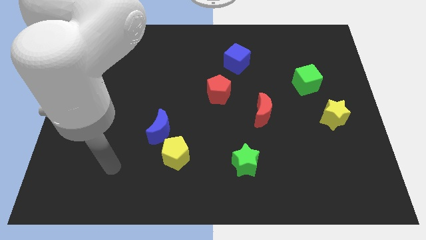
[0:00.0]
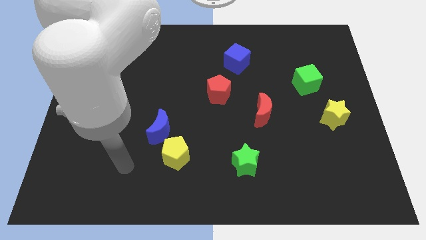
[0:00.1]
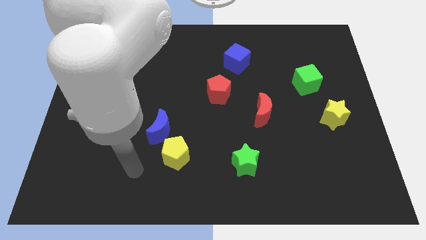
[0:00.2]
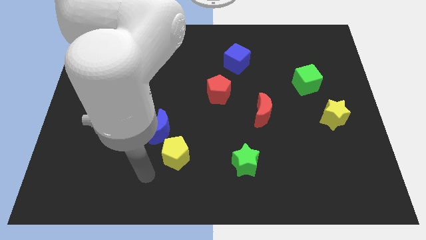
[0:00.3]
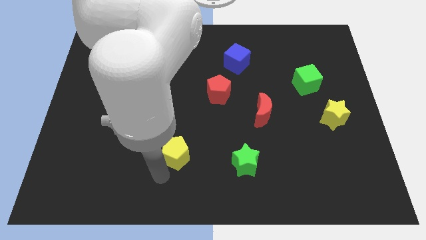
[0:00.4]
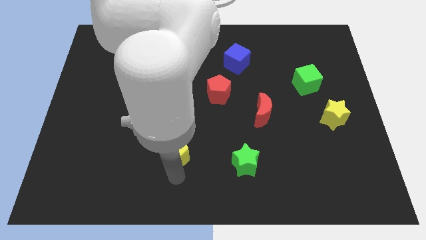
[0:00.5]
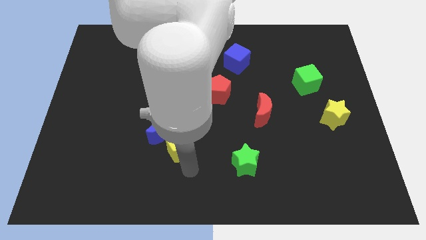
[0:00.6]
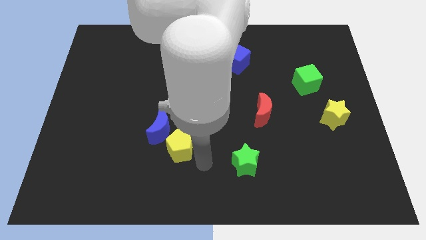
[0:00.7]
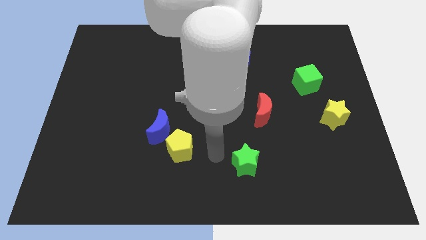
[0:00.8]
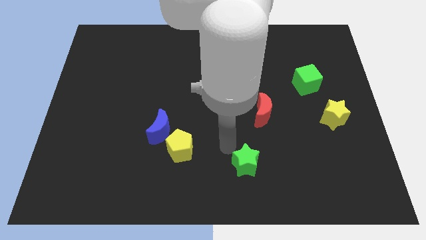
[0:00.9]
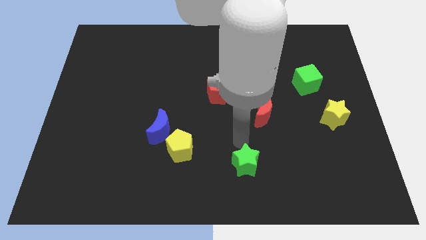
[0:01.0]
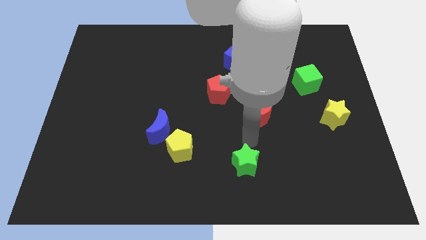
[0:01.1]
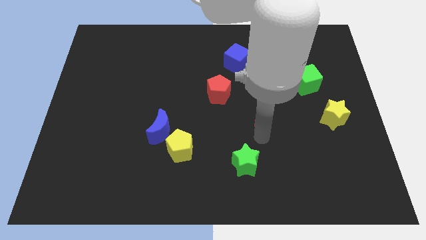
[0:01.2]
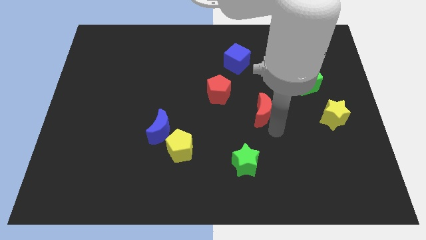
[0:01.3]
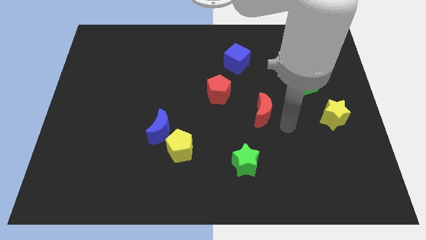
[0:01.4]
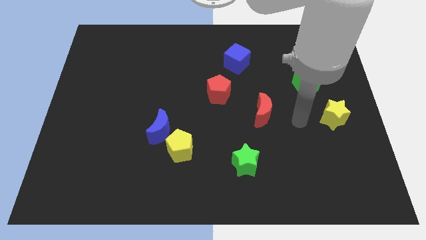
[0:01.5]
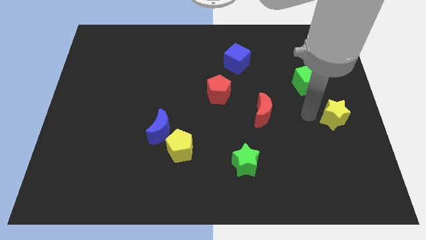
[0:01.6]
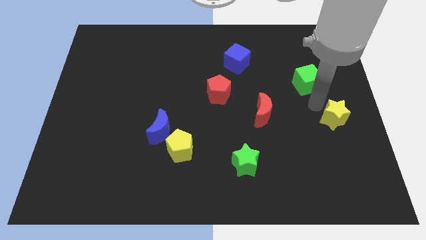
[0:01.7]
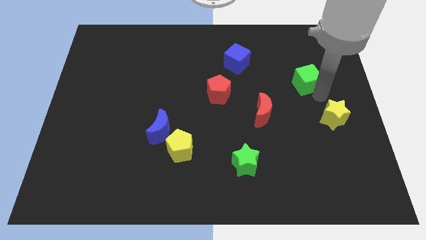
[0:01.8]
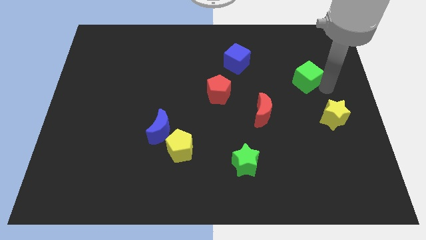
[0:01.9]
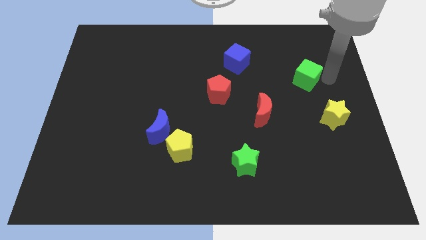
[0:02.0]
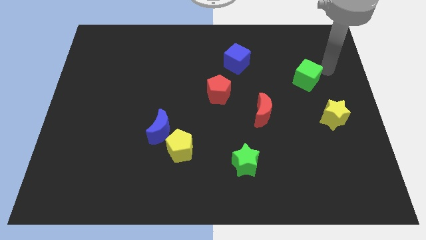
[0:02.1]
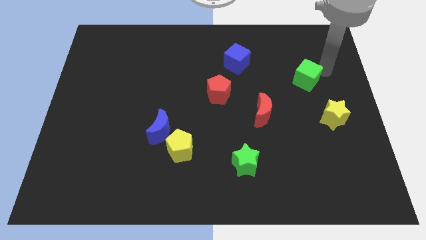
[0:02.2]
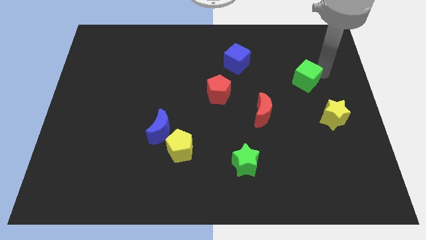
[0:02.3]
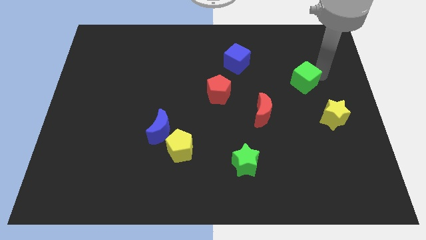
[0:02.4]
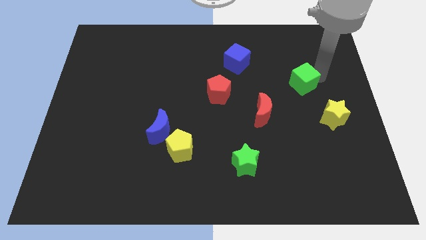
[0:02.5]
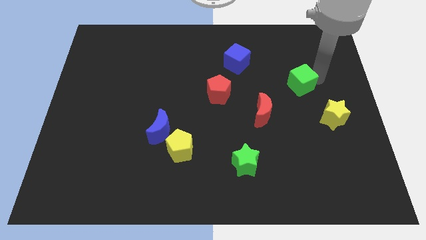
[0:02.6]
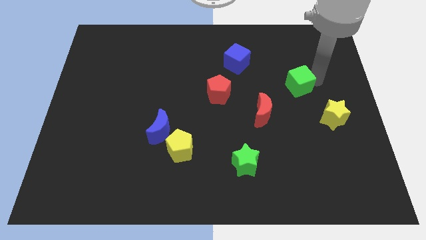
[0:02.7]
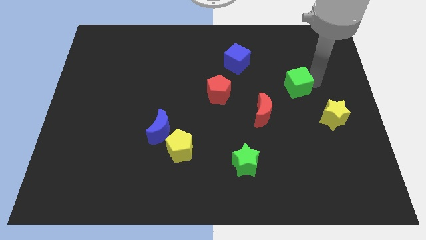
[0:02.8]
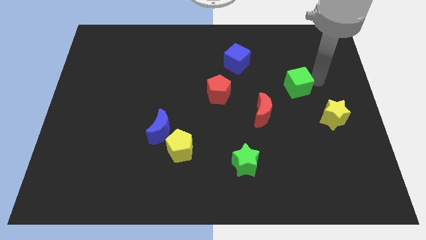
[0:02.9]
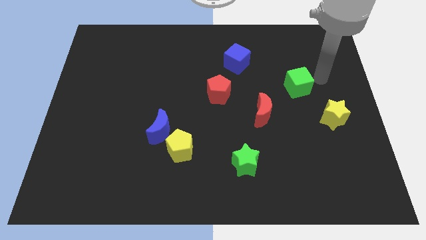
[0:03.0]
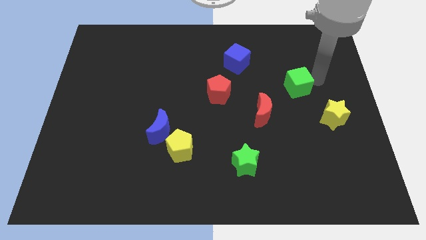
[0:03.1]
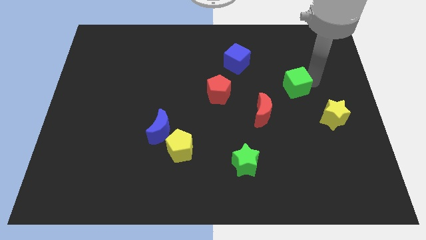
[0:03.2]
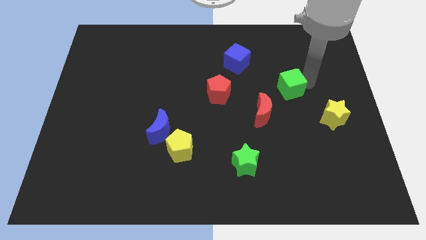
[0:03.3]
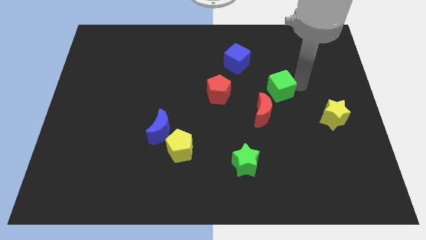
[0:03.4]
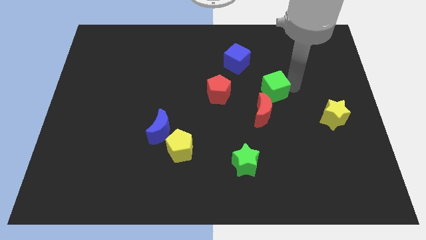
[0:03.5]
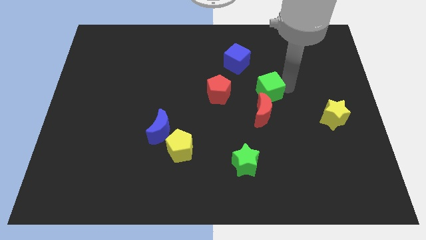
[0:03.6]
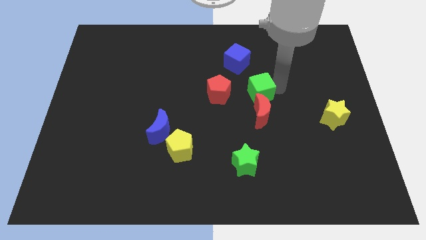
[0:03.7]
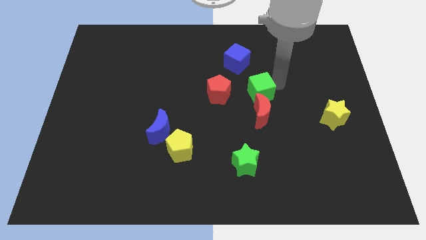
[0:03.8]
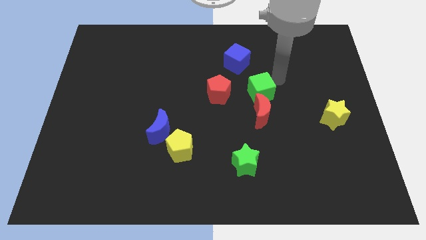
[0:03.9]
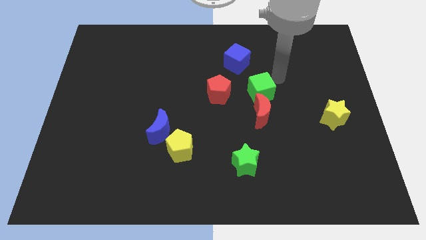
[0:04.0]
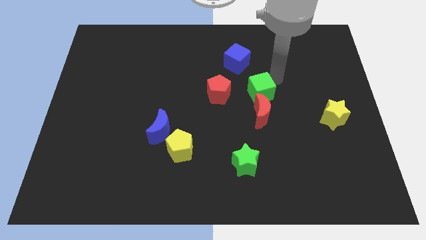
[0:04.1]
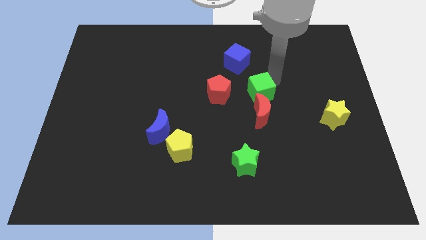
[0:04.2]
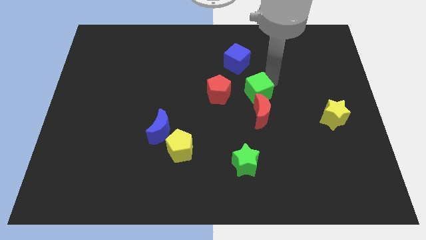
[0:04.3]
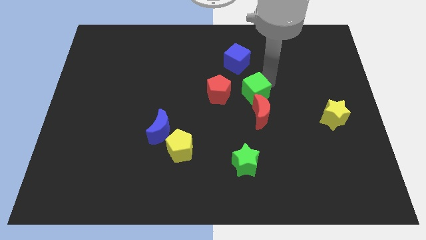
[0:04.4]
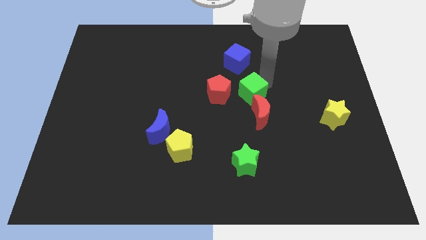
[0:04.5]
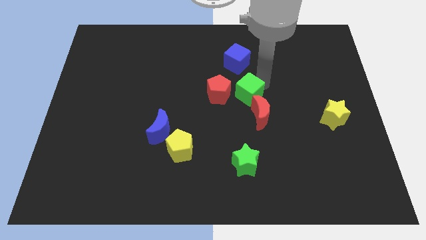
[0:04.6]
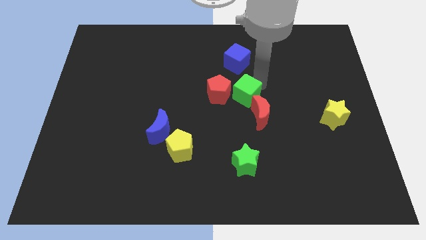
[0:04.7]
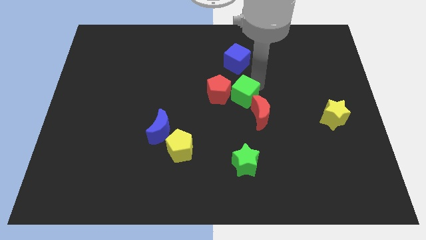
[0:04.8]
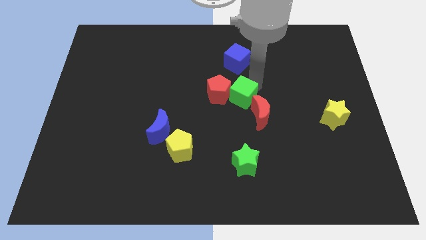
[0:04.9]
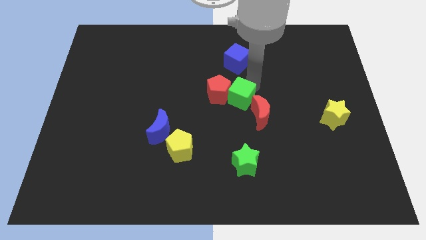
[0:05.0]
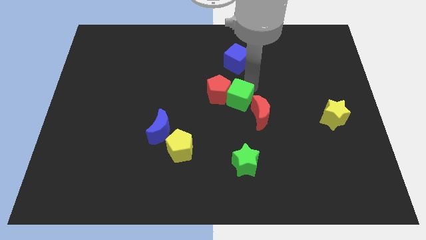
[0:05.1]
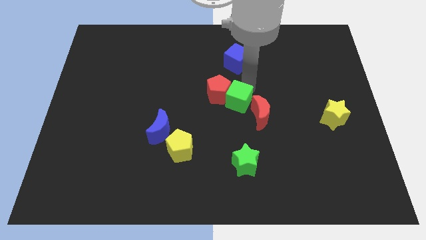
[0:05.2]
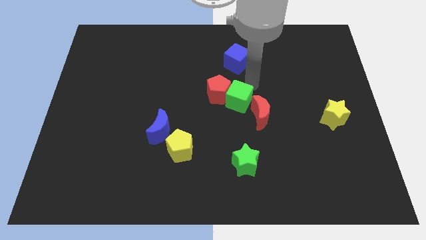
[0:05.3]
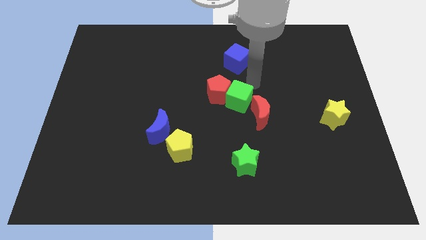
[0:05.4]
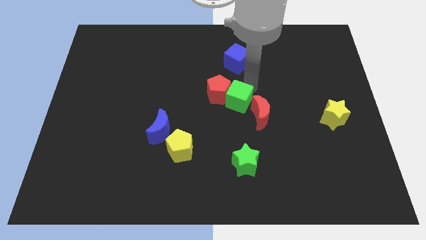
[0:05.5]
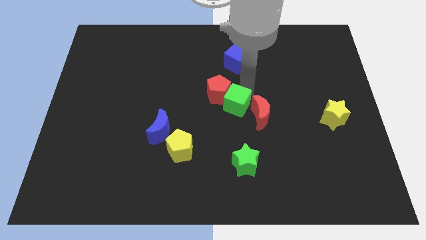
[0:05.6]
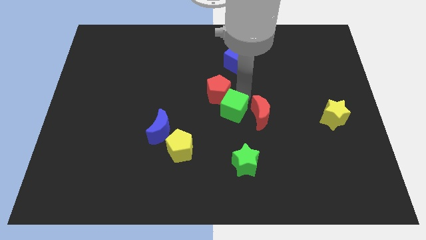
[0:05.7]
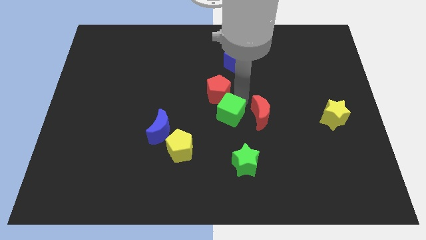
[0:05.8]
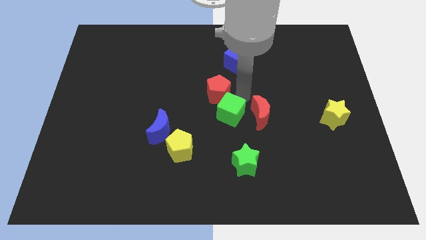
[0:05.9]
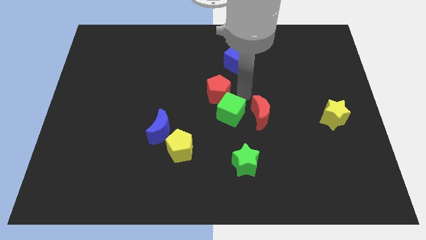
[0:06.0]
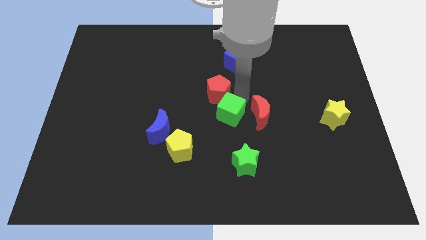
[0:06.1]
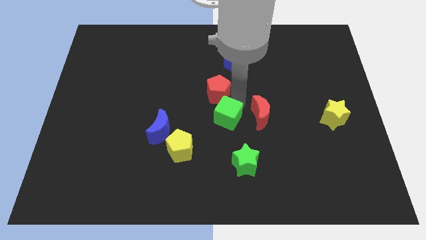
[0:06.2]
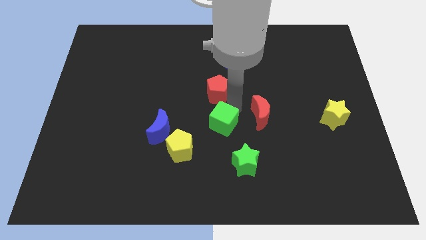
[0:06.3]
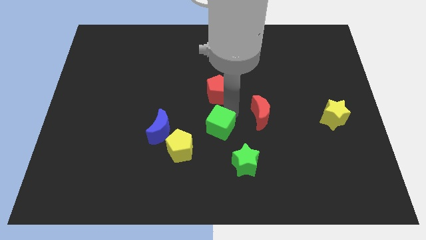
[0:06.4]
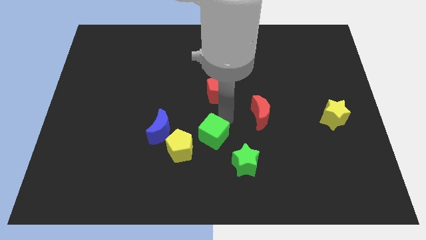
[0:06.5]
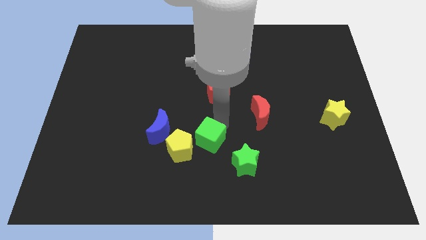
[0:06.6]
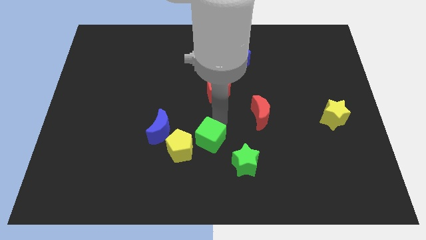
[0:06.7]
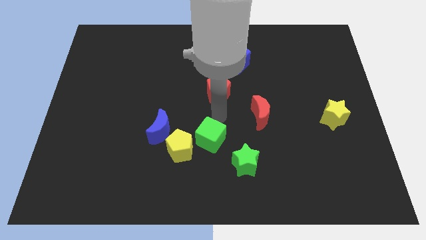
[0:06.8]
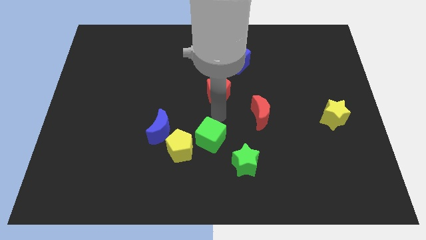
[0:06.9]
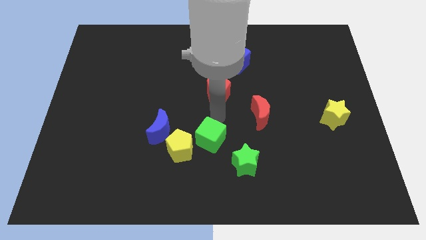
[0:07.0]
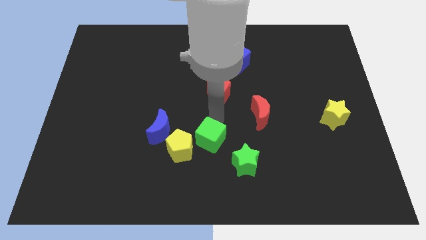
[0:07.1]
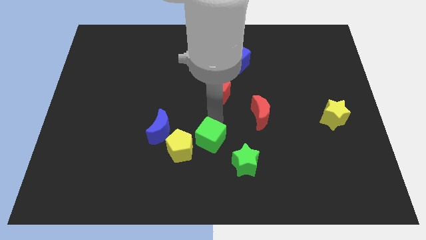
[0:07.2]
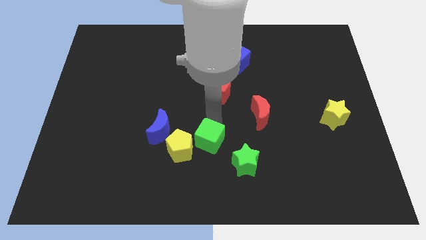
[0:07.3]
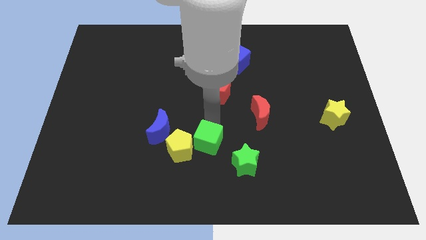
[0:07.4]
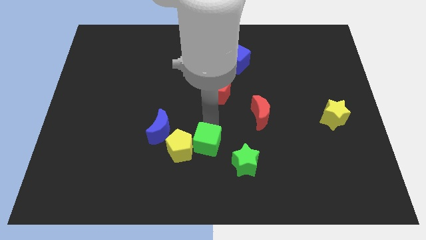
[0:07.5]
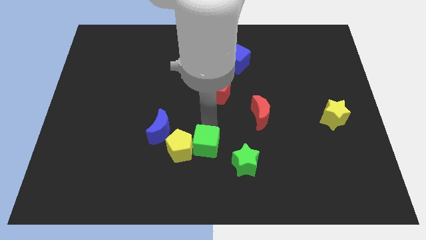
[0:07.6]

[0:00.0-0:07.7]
move the green cube diagonally down and to the right of the yellow pentagon
